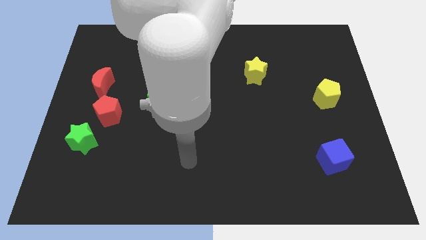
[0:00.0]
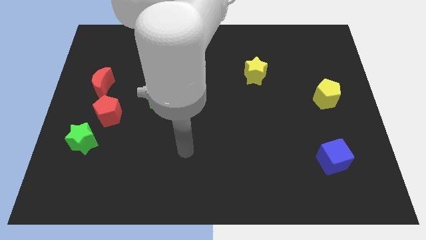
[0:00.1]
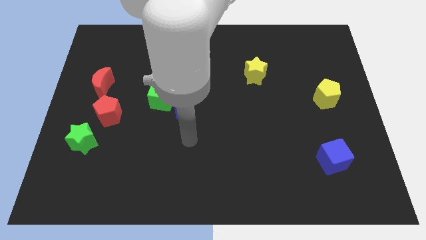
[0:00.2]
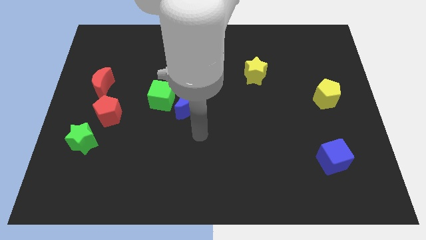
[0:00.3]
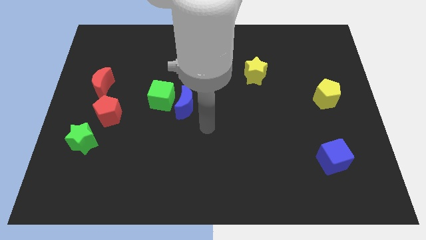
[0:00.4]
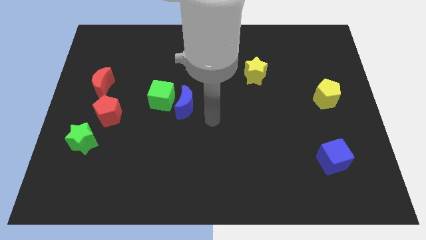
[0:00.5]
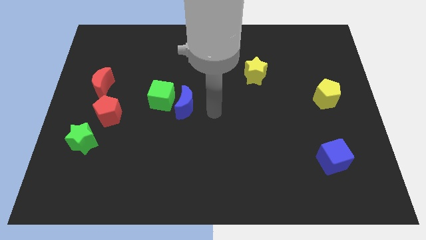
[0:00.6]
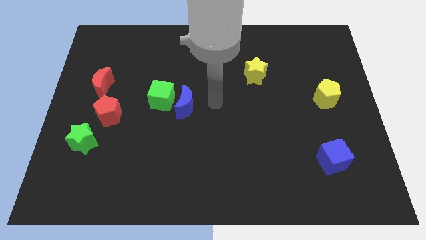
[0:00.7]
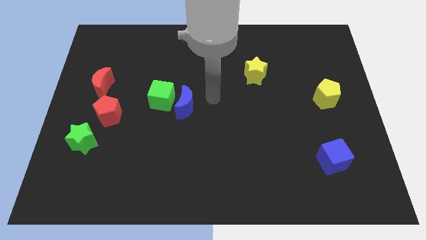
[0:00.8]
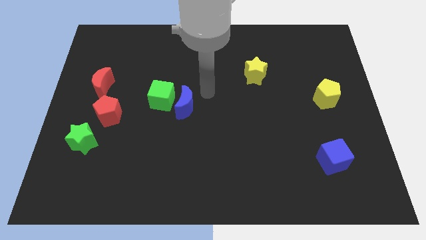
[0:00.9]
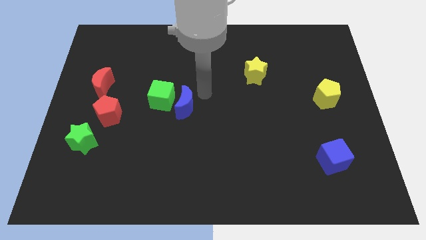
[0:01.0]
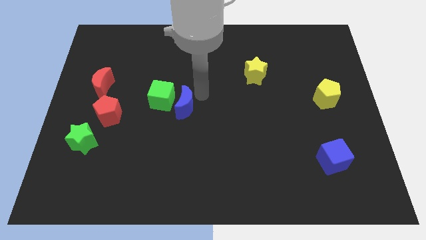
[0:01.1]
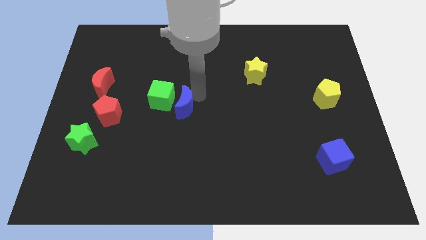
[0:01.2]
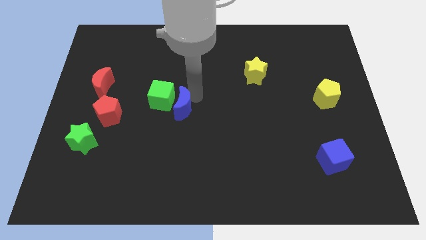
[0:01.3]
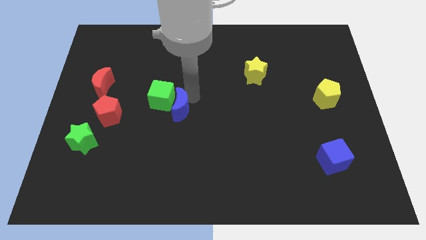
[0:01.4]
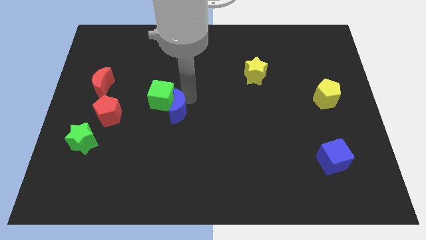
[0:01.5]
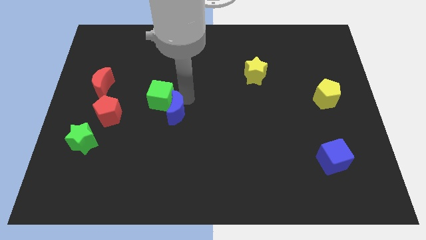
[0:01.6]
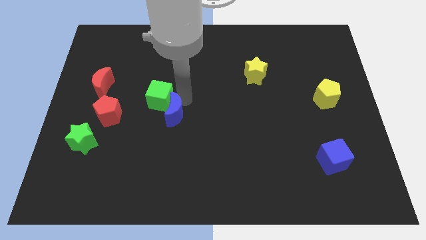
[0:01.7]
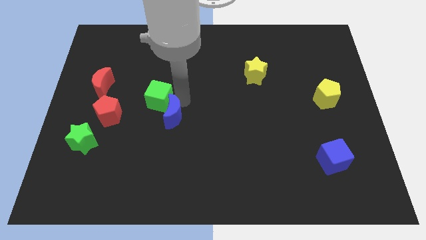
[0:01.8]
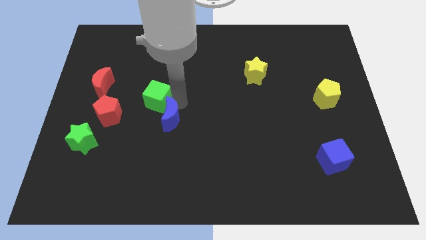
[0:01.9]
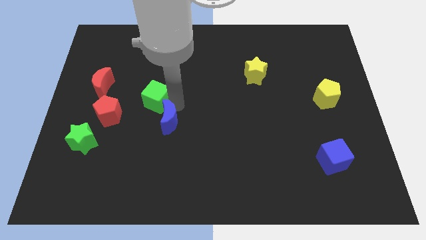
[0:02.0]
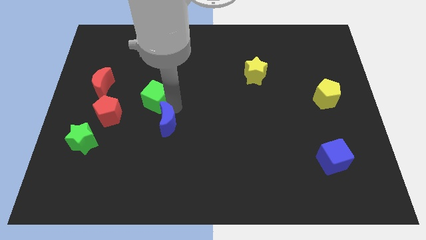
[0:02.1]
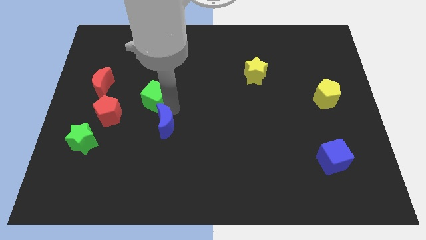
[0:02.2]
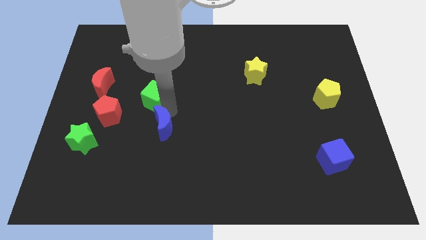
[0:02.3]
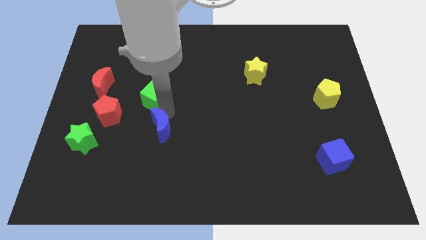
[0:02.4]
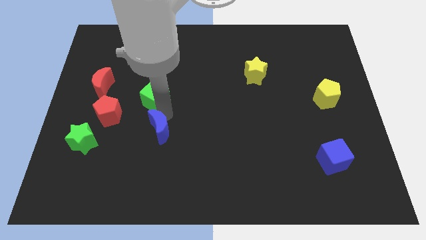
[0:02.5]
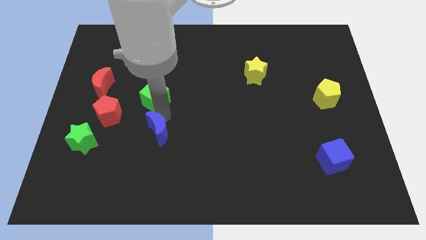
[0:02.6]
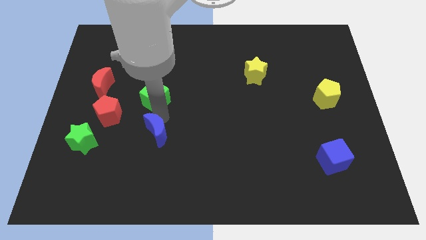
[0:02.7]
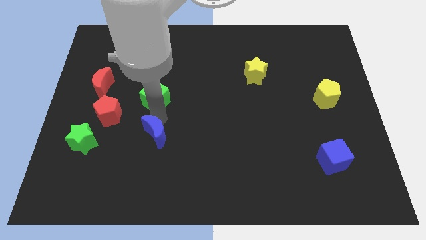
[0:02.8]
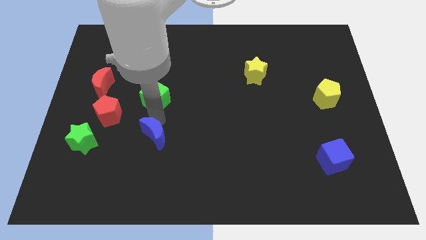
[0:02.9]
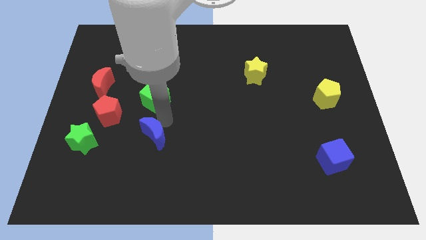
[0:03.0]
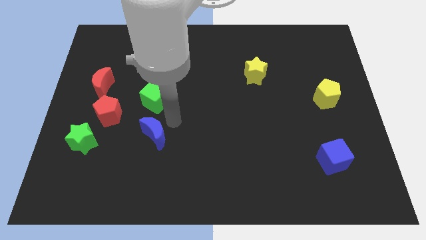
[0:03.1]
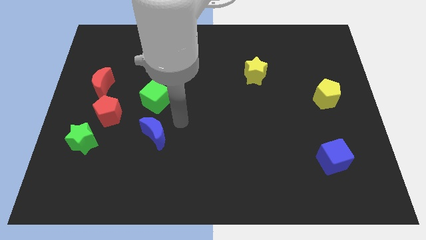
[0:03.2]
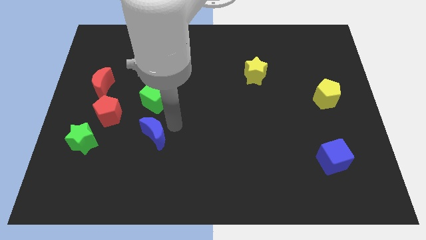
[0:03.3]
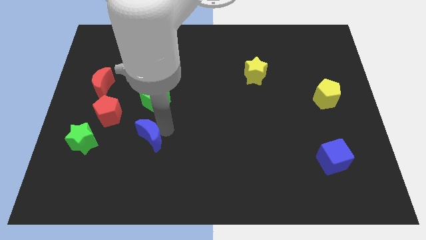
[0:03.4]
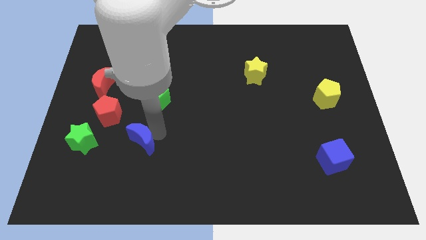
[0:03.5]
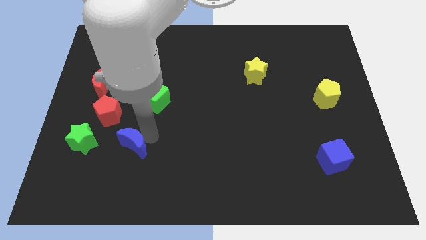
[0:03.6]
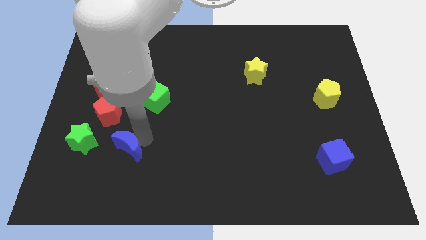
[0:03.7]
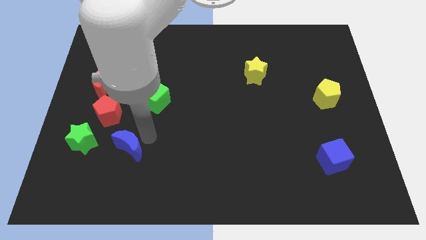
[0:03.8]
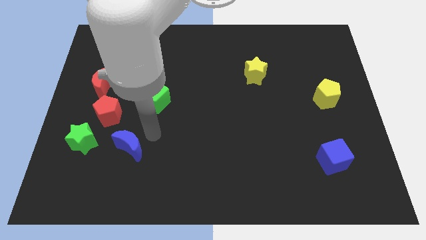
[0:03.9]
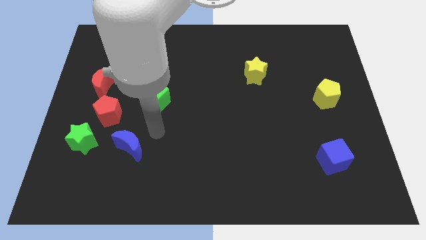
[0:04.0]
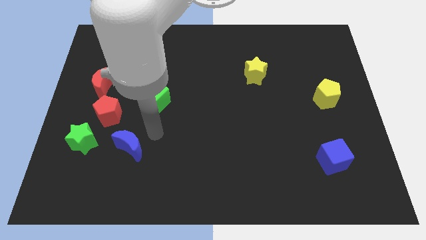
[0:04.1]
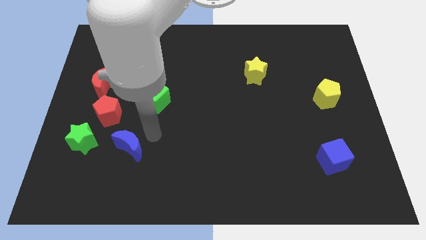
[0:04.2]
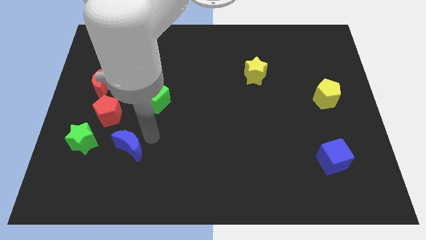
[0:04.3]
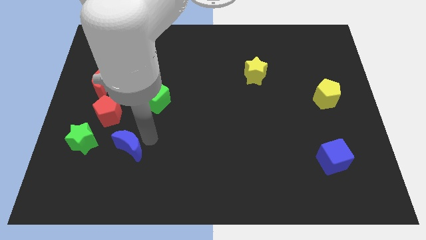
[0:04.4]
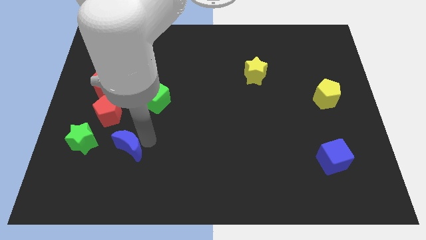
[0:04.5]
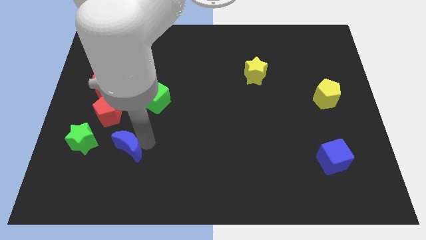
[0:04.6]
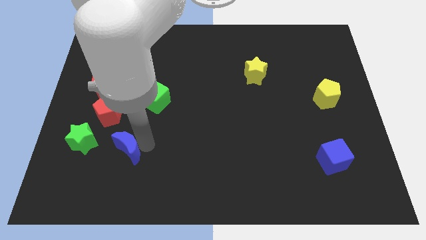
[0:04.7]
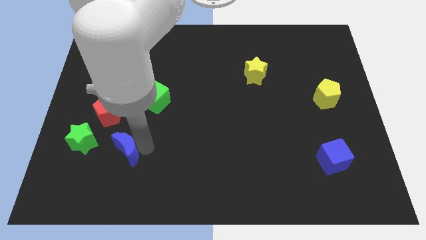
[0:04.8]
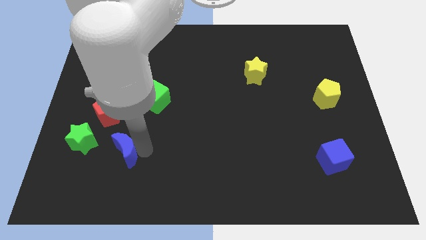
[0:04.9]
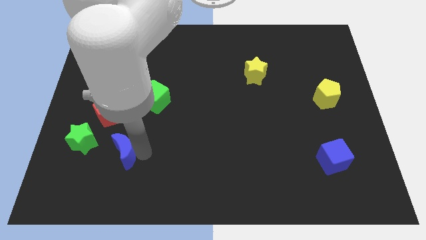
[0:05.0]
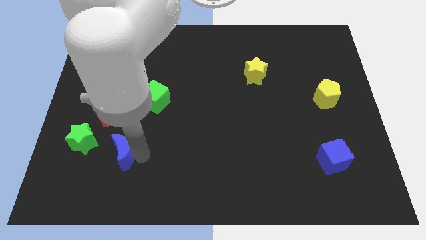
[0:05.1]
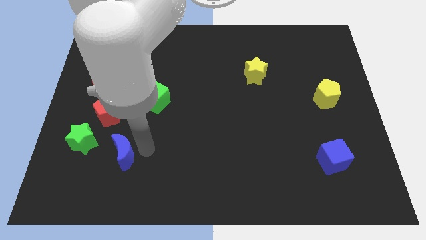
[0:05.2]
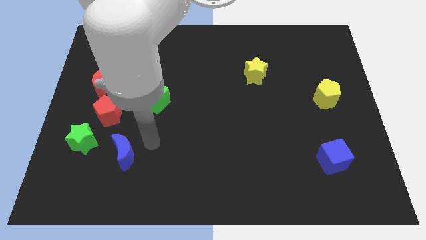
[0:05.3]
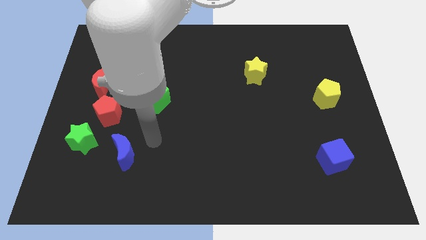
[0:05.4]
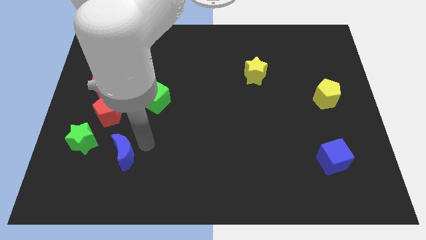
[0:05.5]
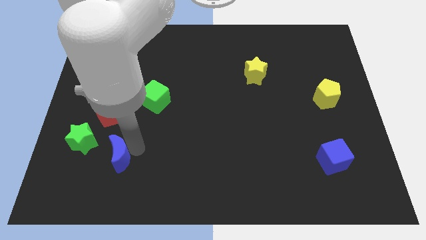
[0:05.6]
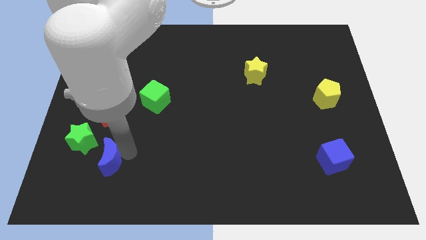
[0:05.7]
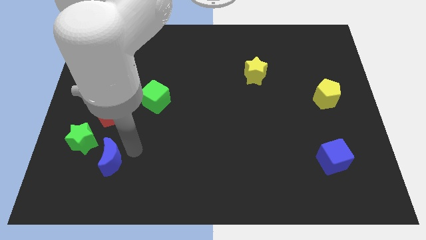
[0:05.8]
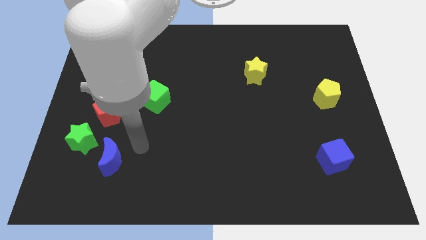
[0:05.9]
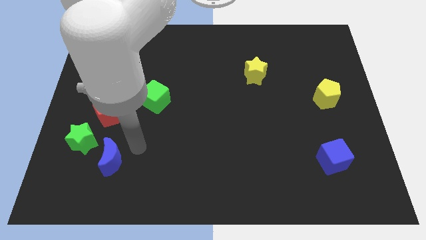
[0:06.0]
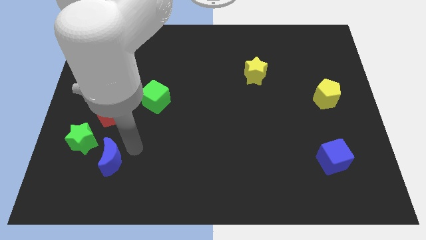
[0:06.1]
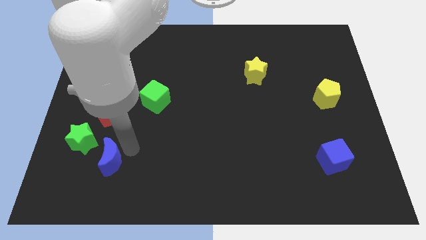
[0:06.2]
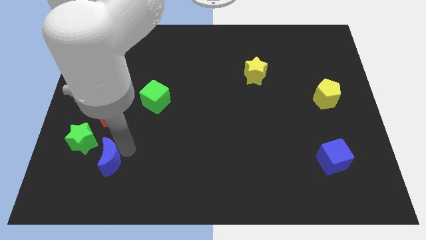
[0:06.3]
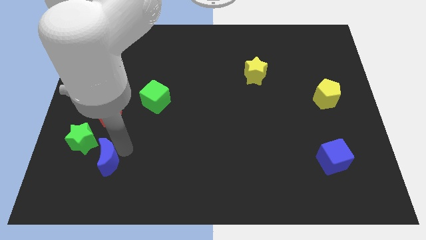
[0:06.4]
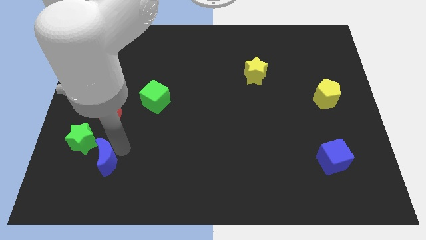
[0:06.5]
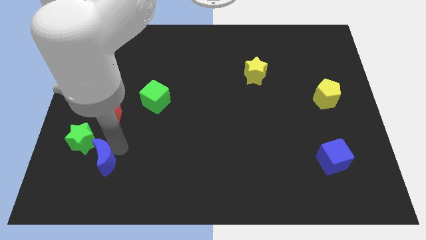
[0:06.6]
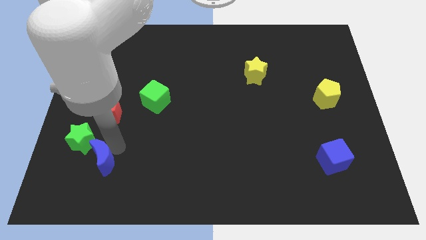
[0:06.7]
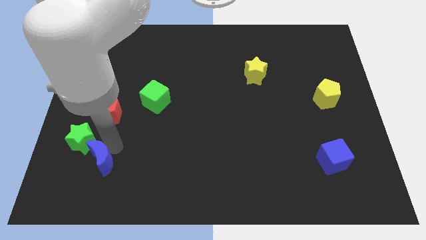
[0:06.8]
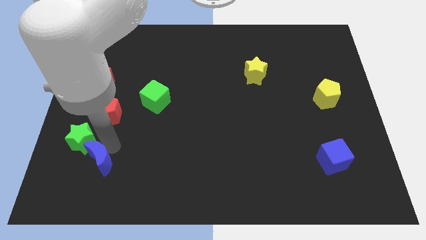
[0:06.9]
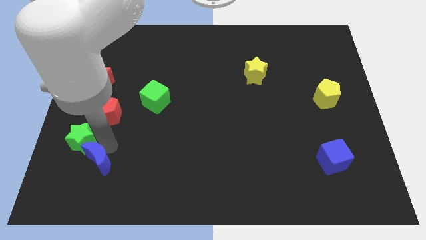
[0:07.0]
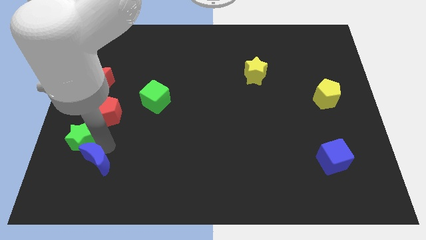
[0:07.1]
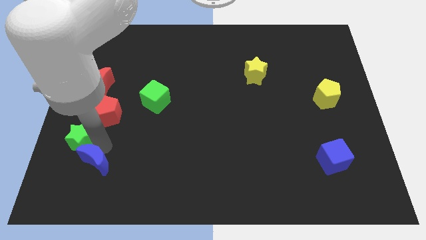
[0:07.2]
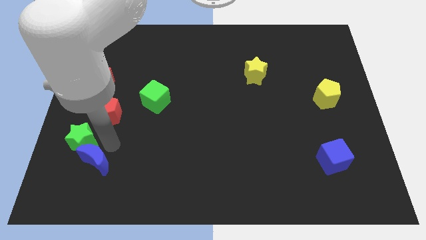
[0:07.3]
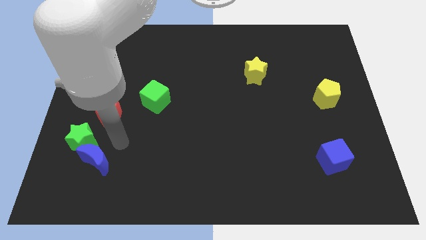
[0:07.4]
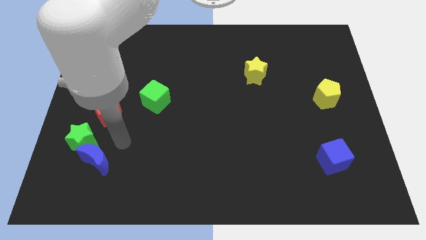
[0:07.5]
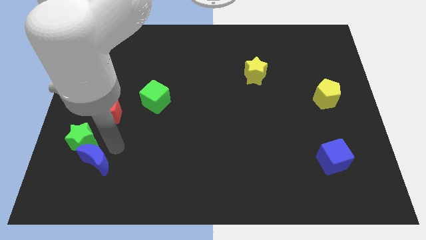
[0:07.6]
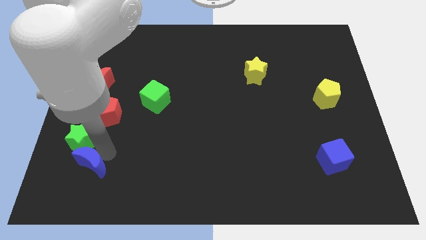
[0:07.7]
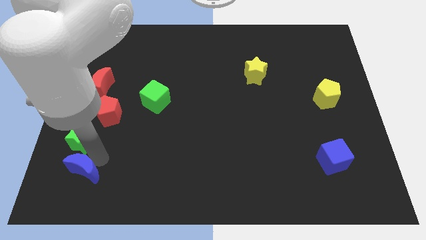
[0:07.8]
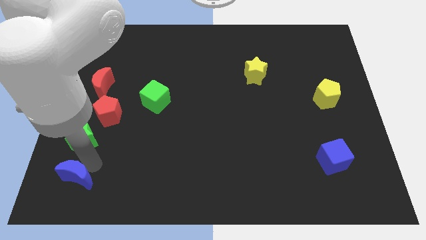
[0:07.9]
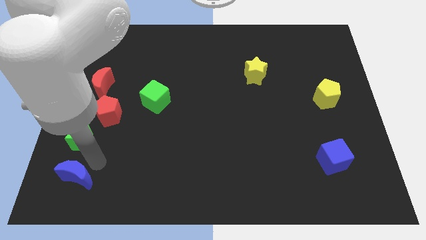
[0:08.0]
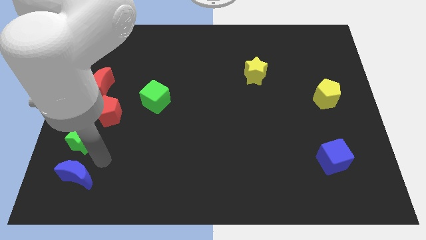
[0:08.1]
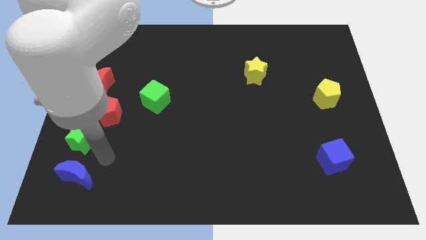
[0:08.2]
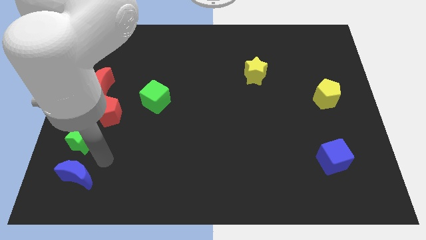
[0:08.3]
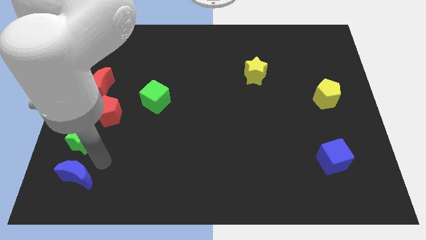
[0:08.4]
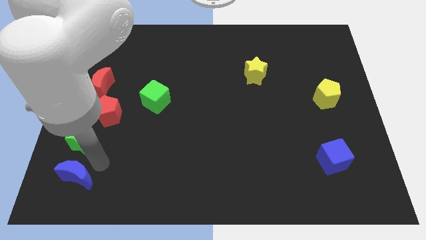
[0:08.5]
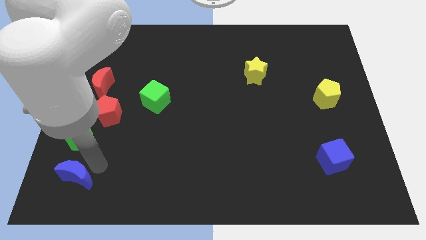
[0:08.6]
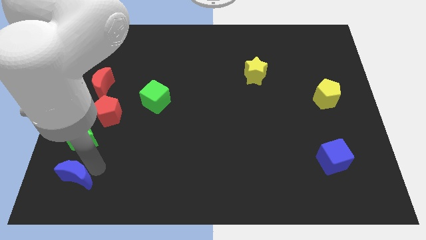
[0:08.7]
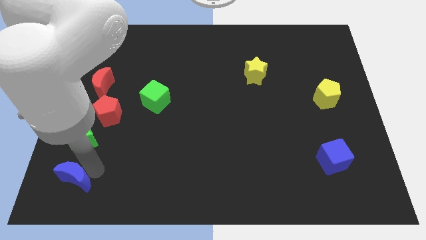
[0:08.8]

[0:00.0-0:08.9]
push the blue moon to the bottom left

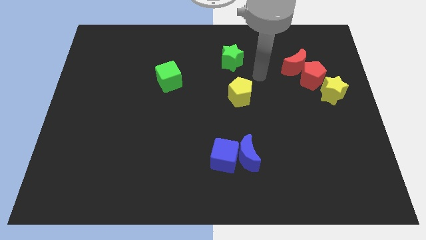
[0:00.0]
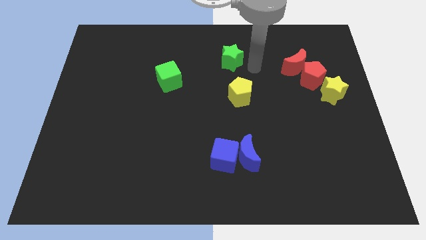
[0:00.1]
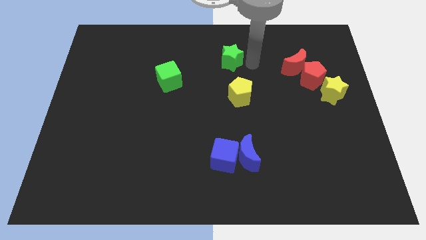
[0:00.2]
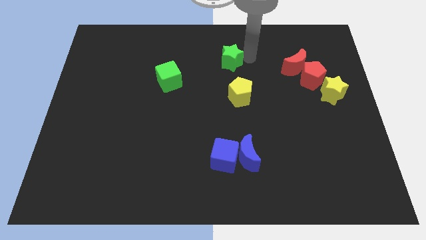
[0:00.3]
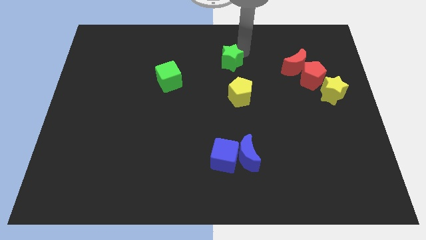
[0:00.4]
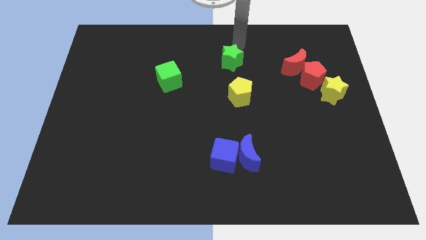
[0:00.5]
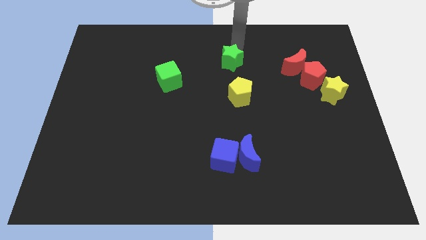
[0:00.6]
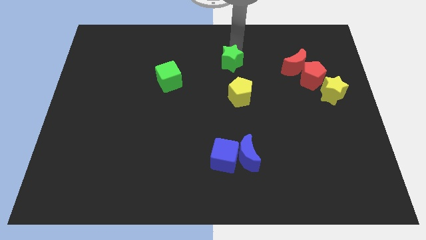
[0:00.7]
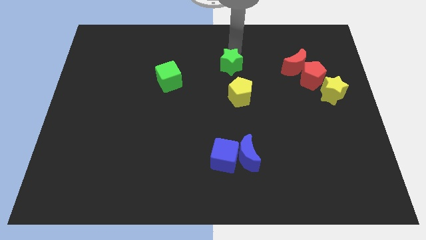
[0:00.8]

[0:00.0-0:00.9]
slide the green star to the center
